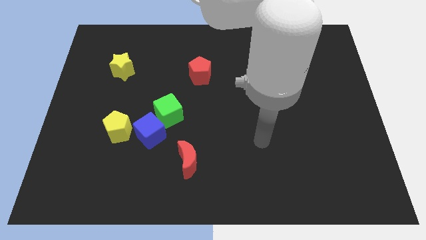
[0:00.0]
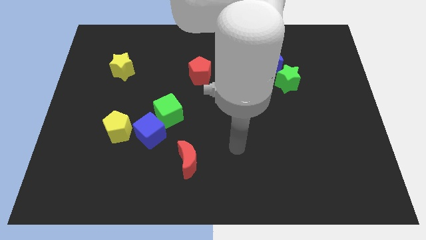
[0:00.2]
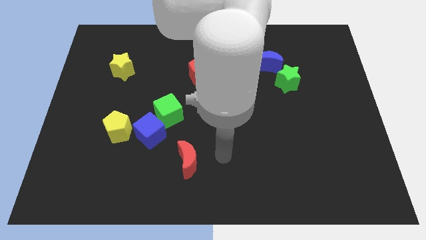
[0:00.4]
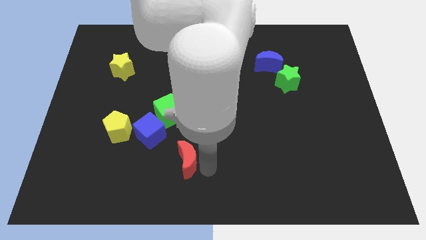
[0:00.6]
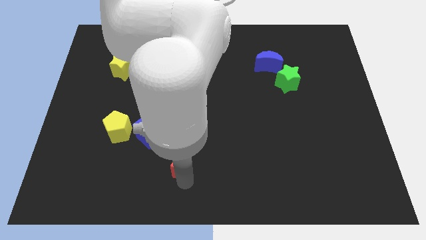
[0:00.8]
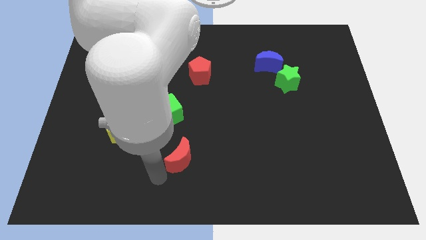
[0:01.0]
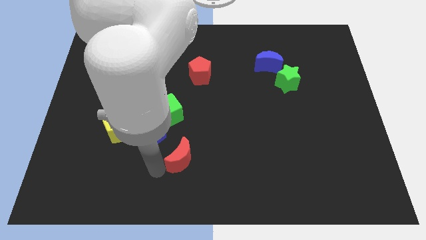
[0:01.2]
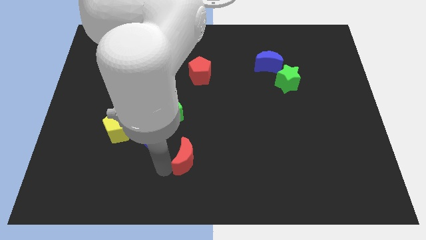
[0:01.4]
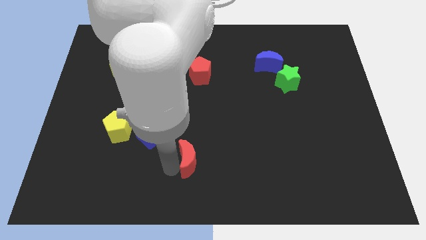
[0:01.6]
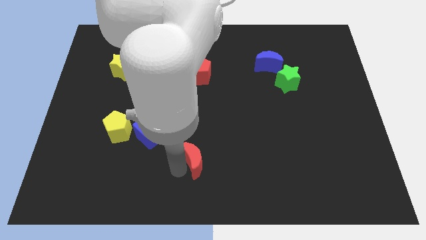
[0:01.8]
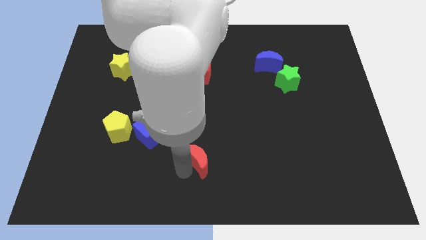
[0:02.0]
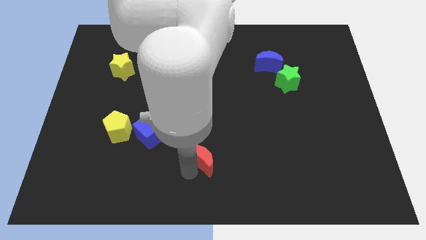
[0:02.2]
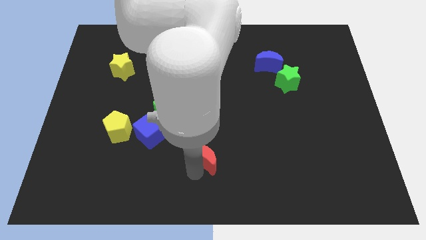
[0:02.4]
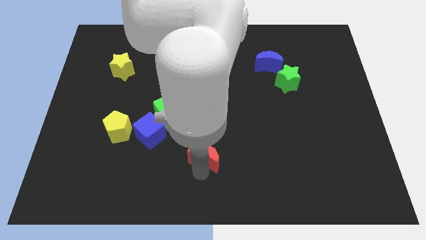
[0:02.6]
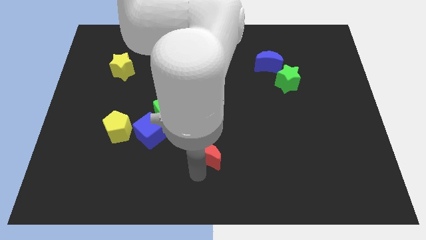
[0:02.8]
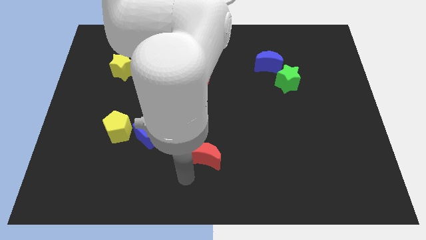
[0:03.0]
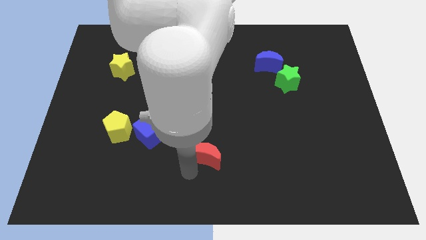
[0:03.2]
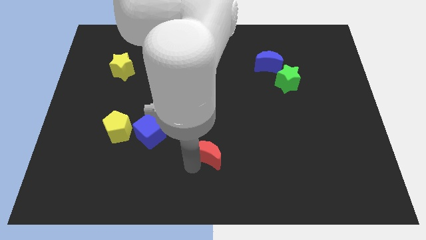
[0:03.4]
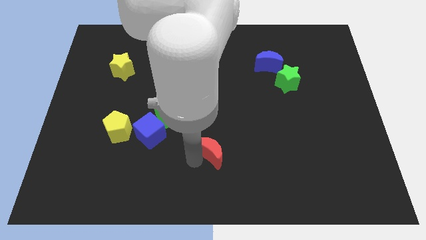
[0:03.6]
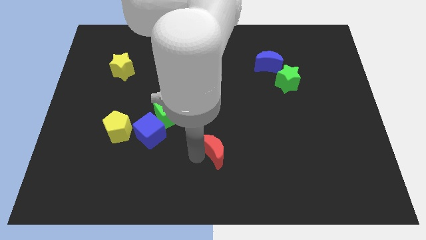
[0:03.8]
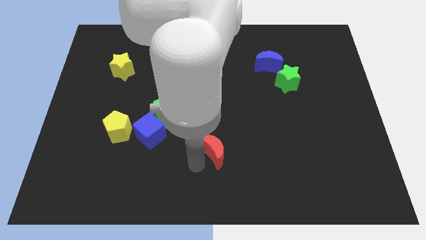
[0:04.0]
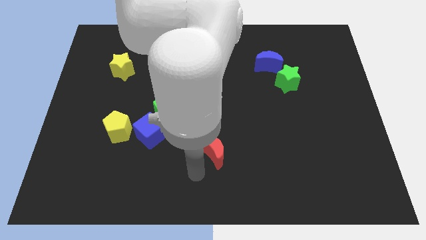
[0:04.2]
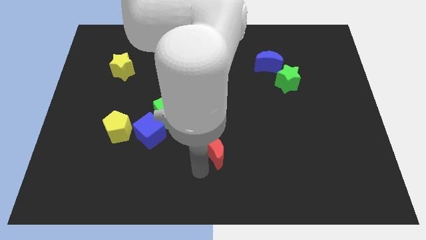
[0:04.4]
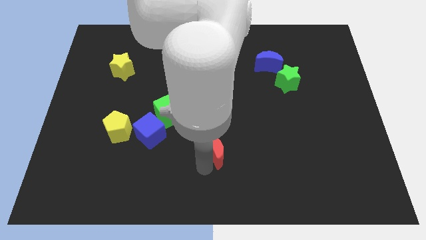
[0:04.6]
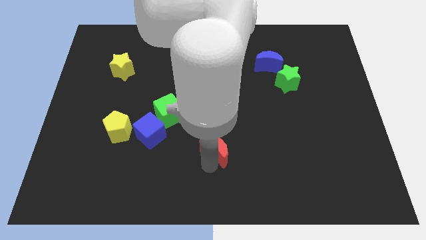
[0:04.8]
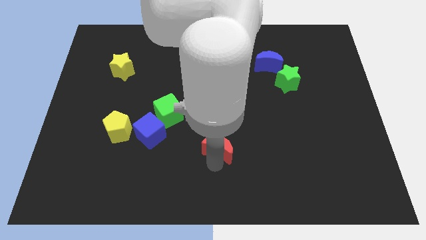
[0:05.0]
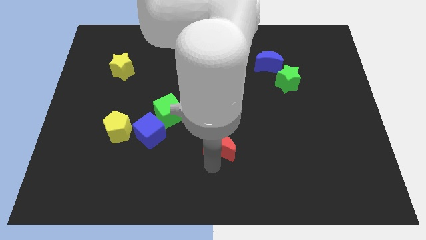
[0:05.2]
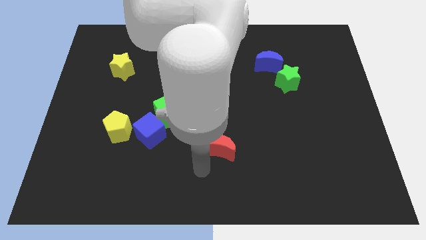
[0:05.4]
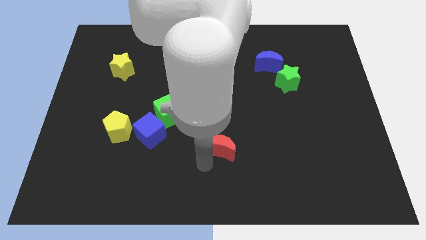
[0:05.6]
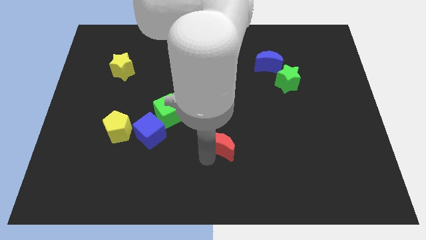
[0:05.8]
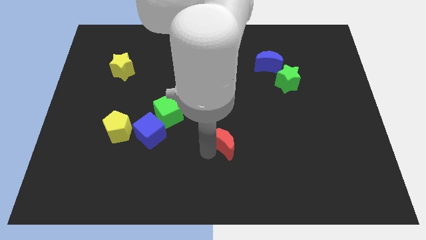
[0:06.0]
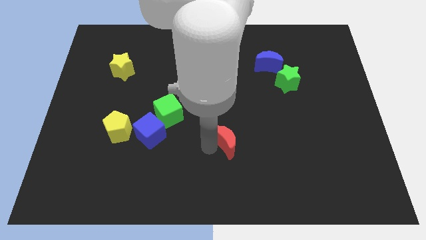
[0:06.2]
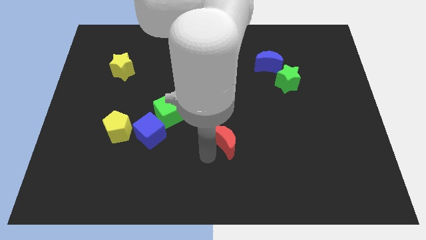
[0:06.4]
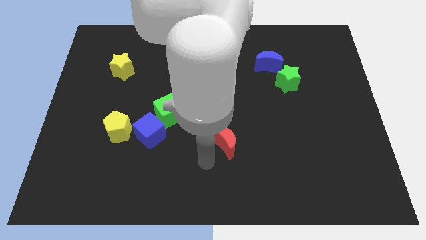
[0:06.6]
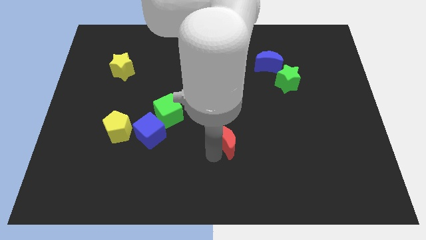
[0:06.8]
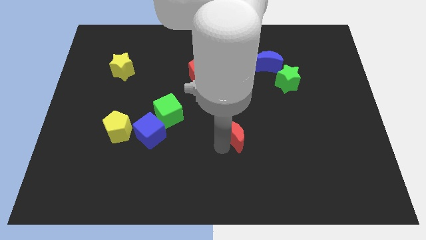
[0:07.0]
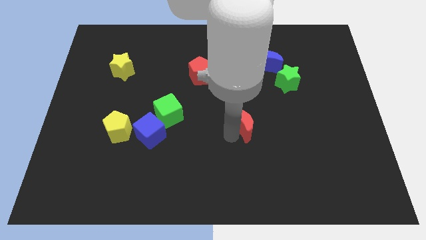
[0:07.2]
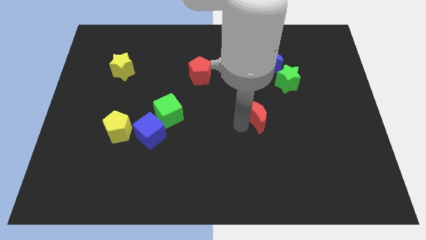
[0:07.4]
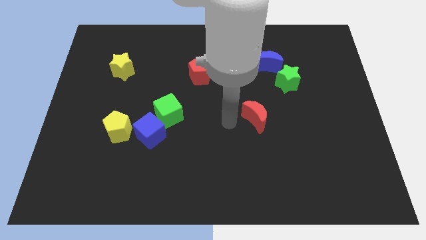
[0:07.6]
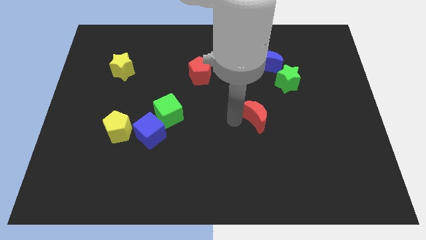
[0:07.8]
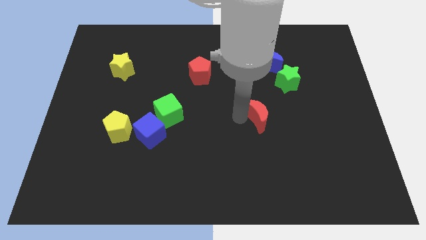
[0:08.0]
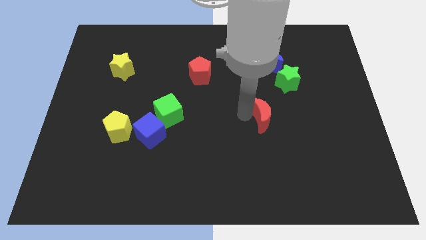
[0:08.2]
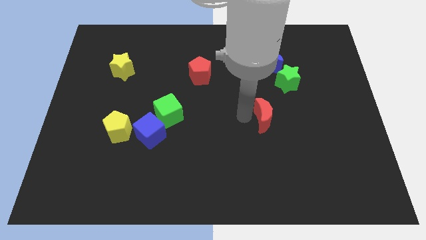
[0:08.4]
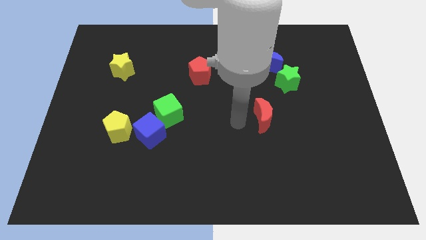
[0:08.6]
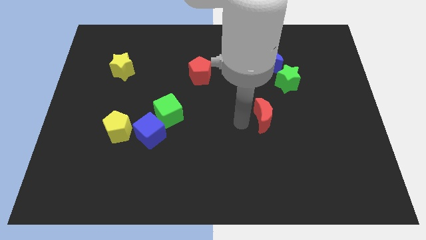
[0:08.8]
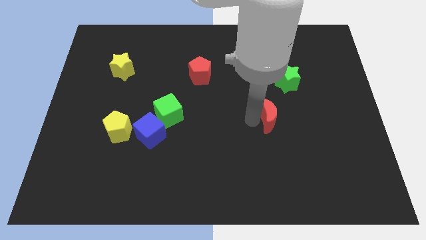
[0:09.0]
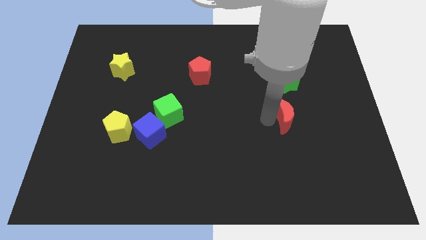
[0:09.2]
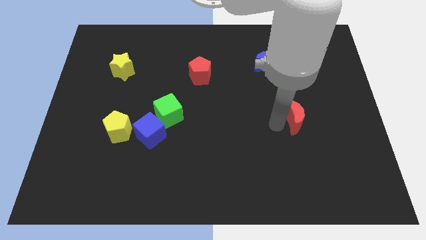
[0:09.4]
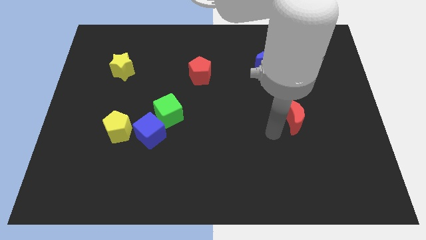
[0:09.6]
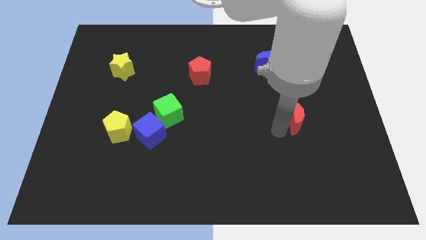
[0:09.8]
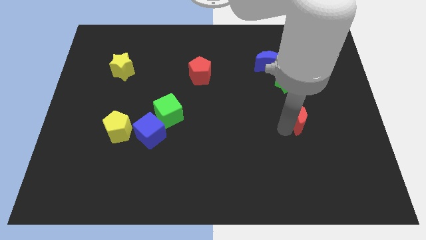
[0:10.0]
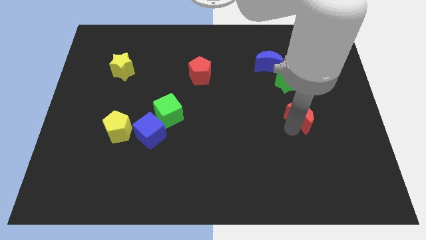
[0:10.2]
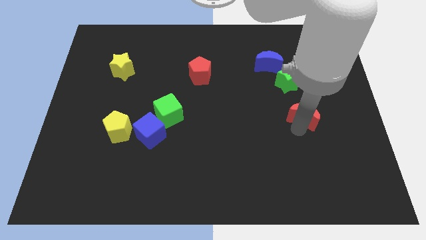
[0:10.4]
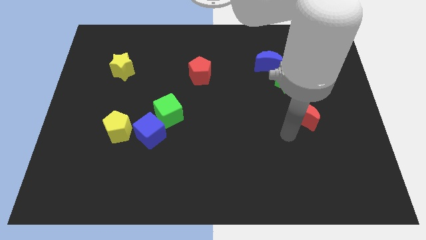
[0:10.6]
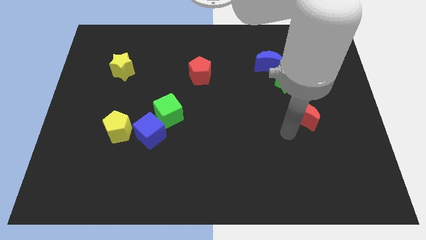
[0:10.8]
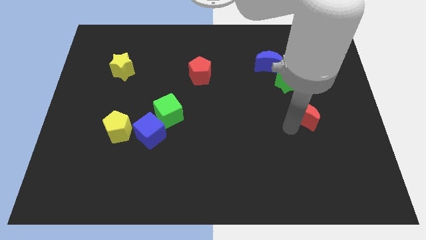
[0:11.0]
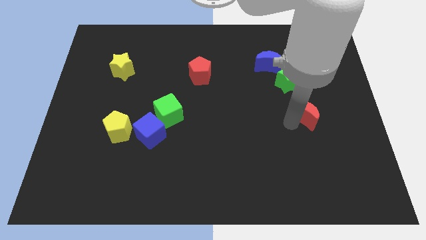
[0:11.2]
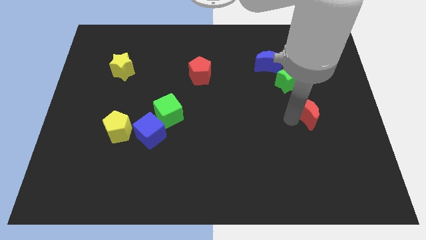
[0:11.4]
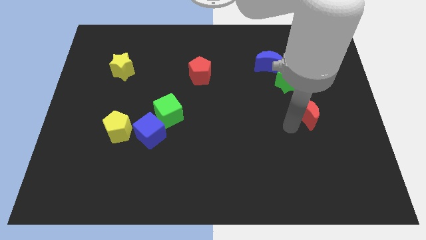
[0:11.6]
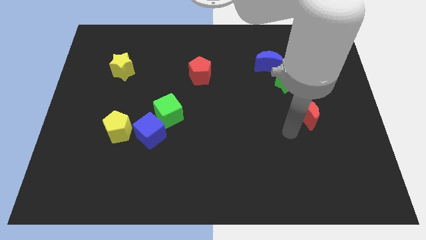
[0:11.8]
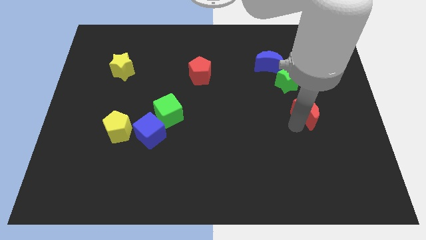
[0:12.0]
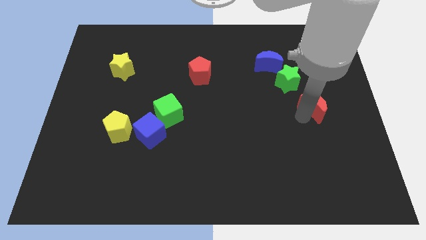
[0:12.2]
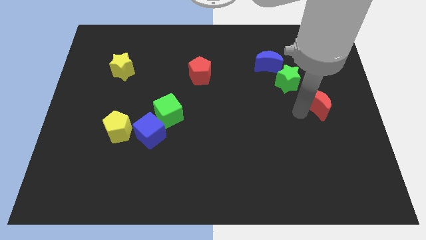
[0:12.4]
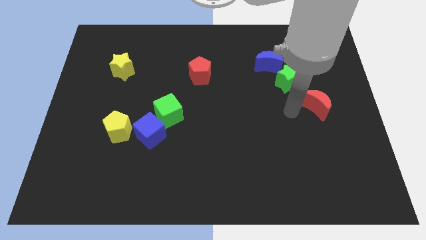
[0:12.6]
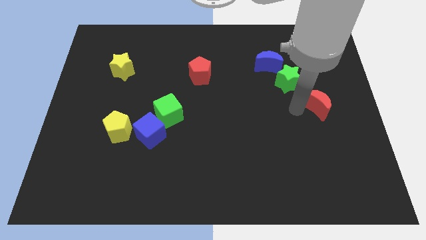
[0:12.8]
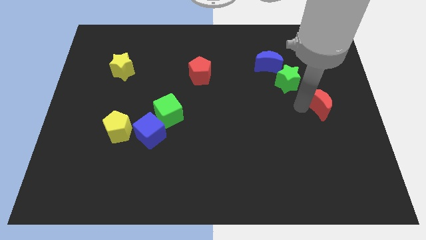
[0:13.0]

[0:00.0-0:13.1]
push the red moon to the right side of the board
